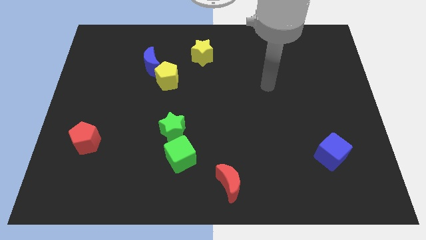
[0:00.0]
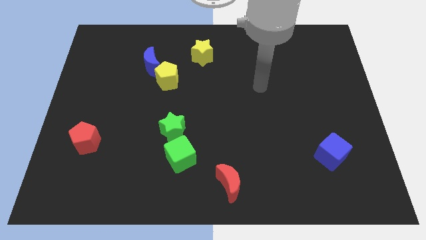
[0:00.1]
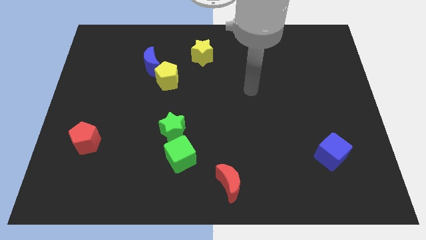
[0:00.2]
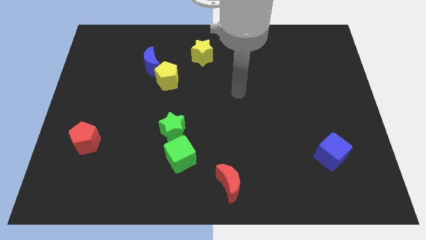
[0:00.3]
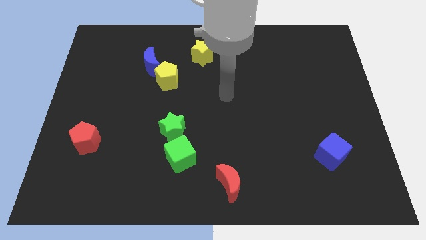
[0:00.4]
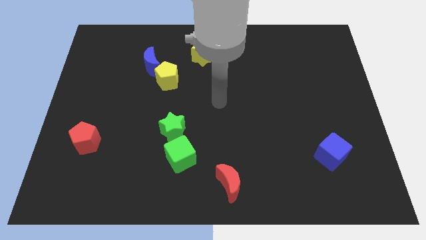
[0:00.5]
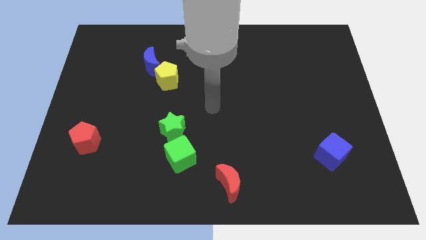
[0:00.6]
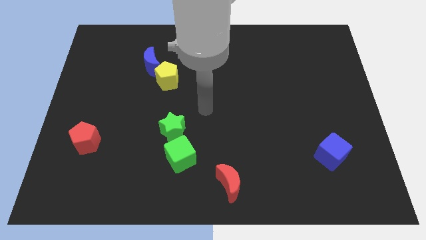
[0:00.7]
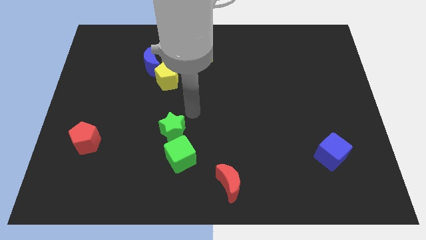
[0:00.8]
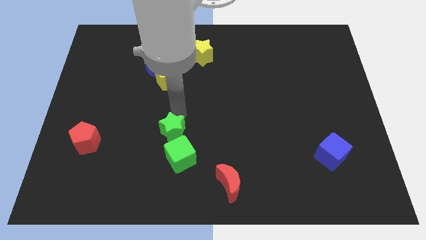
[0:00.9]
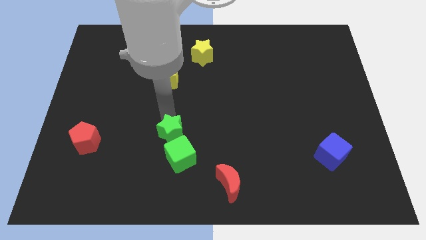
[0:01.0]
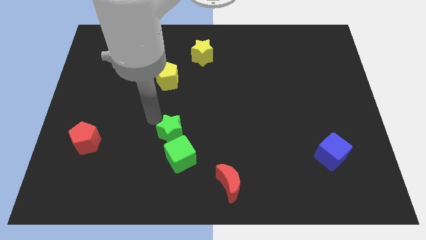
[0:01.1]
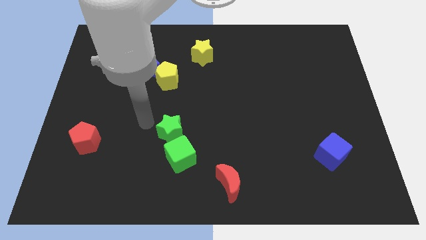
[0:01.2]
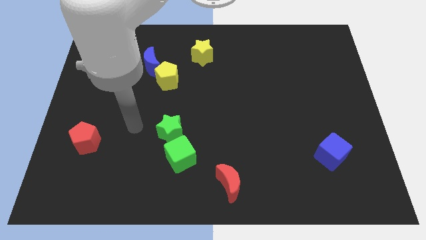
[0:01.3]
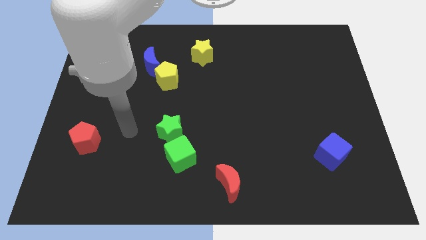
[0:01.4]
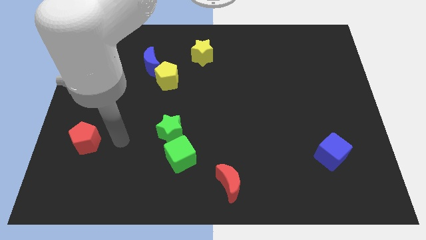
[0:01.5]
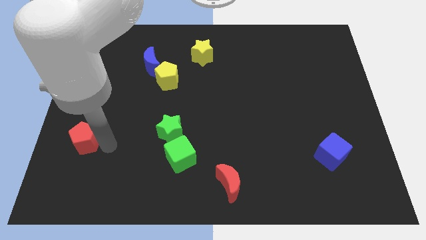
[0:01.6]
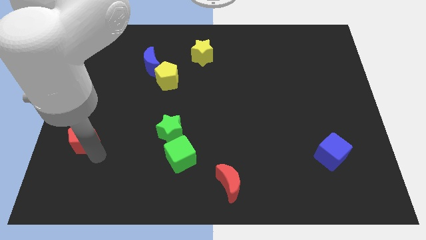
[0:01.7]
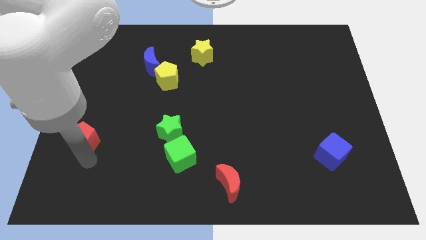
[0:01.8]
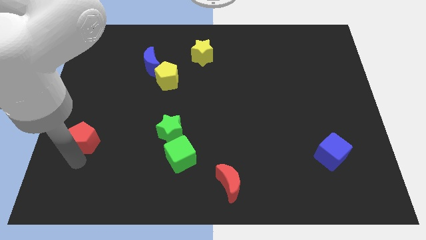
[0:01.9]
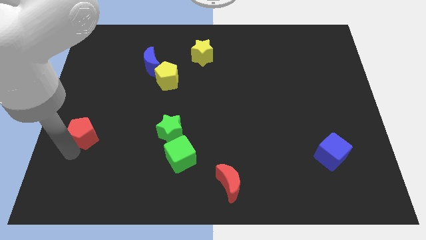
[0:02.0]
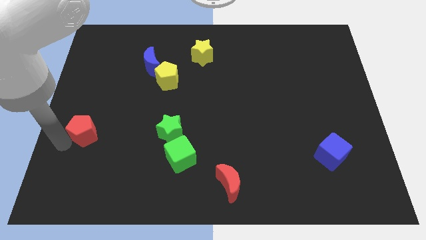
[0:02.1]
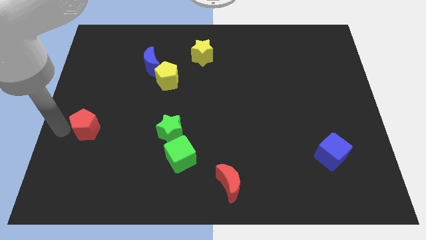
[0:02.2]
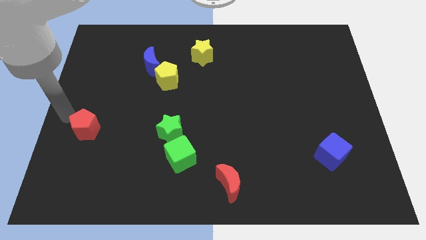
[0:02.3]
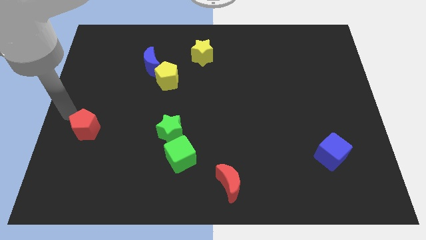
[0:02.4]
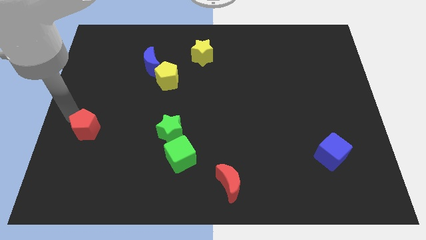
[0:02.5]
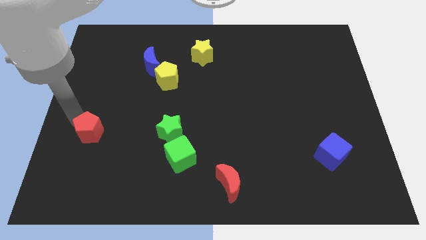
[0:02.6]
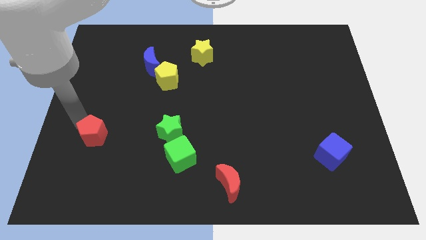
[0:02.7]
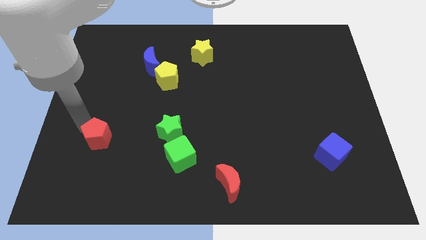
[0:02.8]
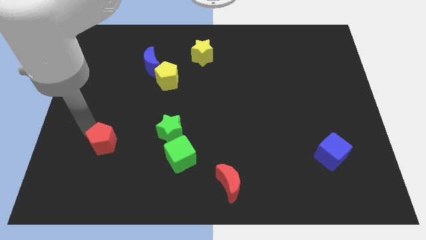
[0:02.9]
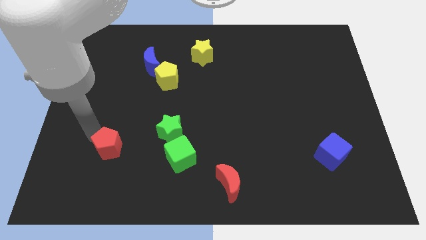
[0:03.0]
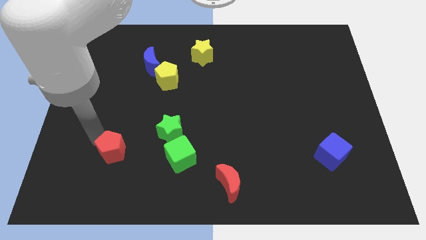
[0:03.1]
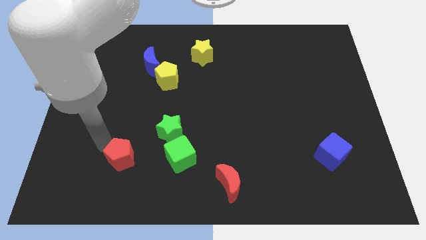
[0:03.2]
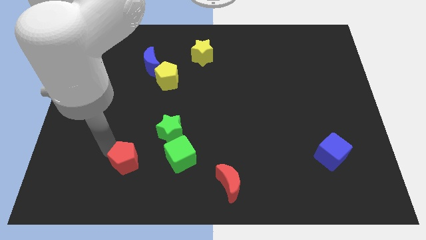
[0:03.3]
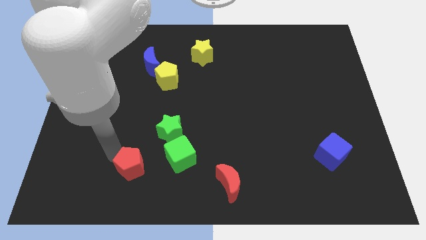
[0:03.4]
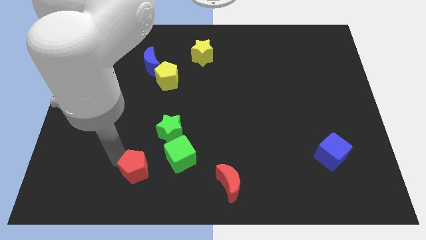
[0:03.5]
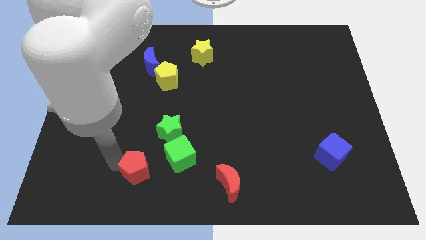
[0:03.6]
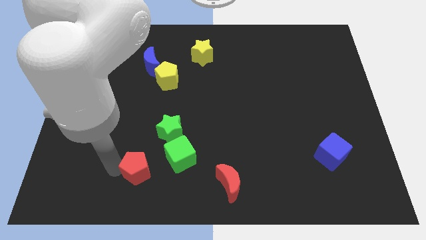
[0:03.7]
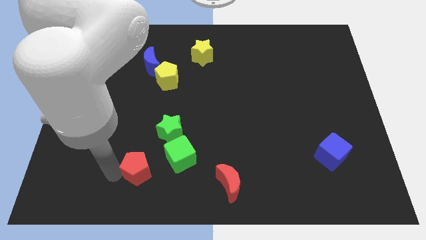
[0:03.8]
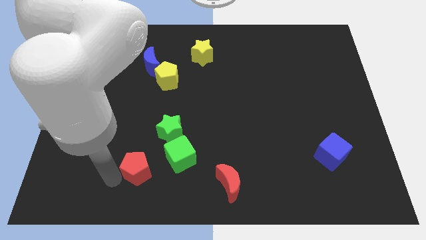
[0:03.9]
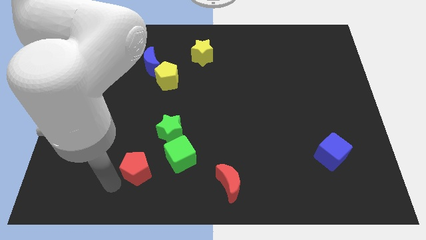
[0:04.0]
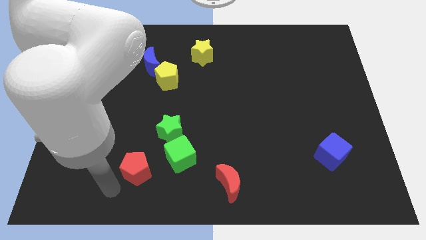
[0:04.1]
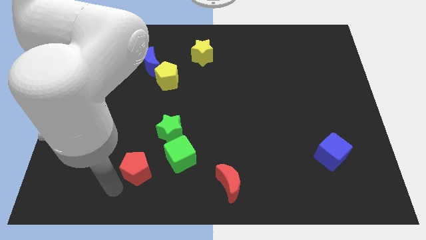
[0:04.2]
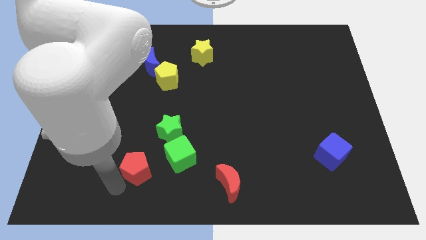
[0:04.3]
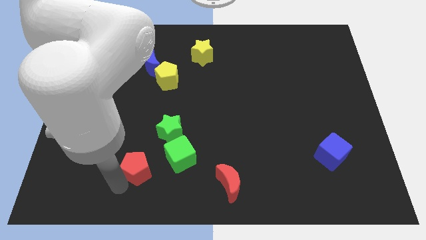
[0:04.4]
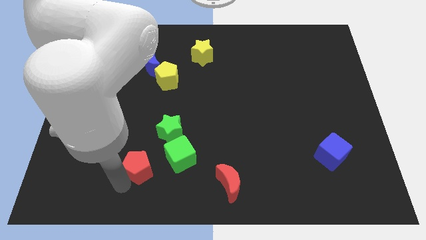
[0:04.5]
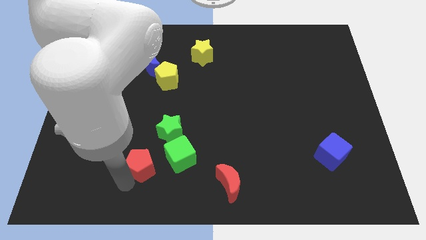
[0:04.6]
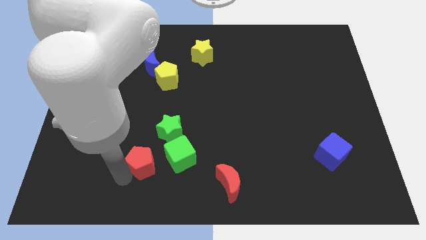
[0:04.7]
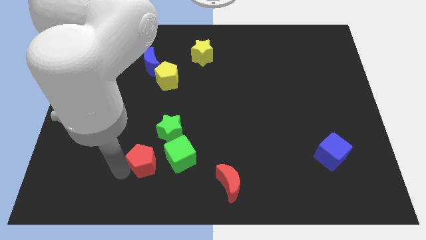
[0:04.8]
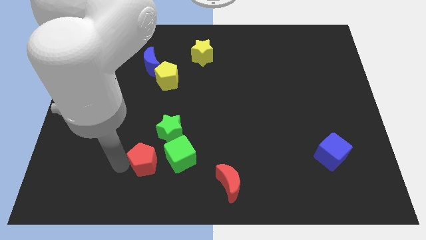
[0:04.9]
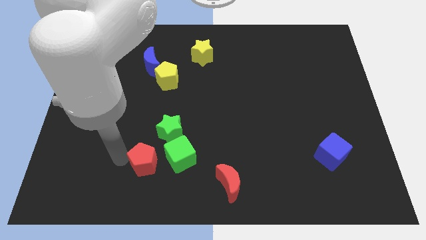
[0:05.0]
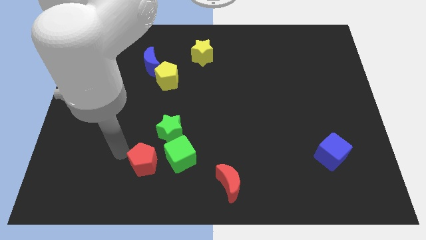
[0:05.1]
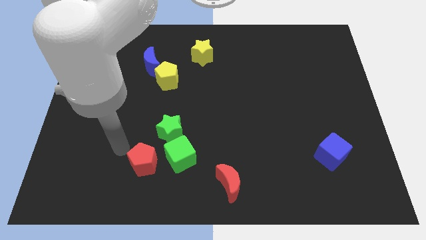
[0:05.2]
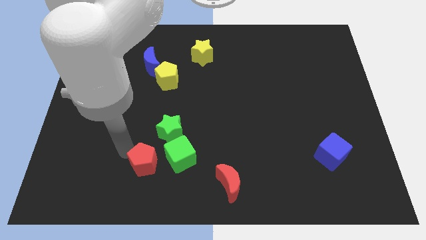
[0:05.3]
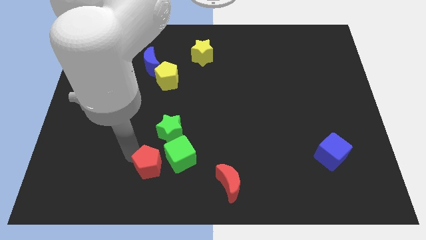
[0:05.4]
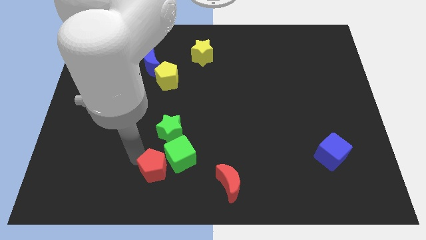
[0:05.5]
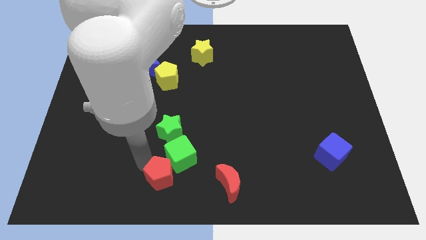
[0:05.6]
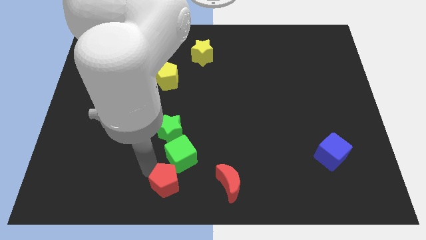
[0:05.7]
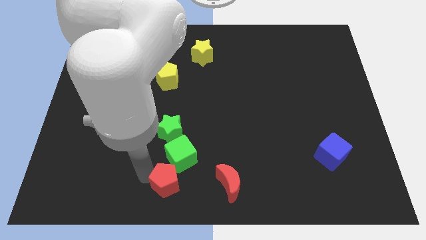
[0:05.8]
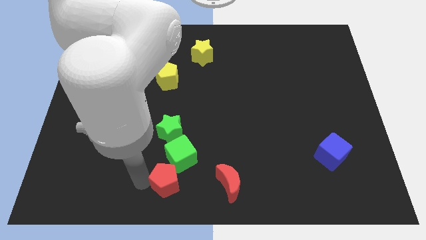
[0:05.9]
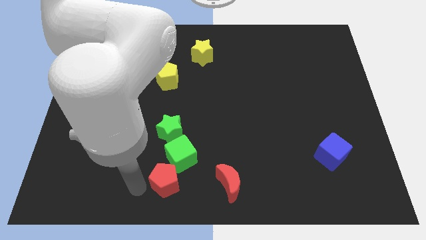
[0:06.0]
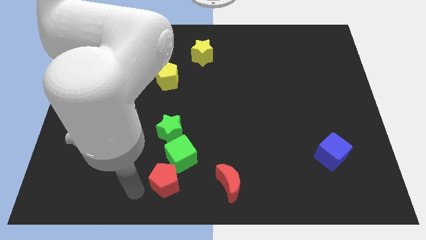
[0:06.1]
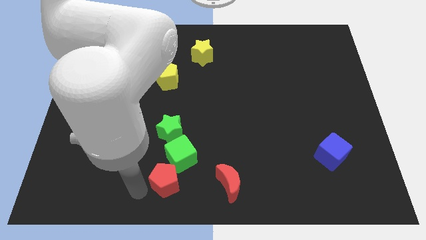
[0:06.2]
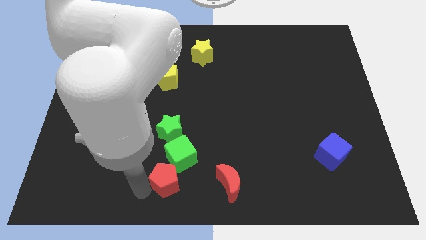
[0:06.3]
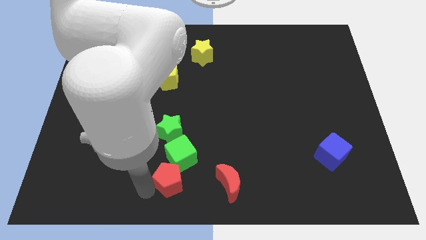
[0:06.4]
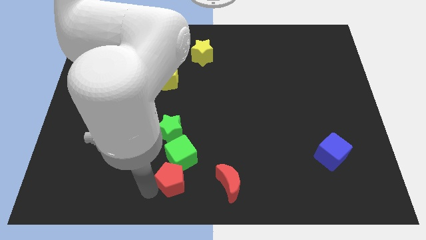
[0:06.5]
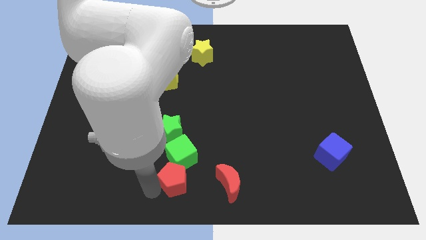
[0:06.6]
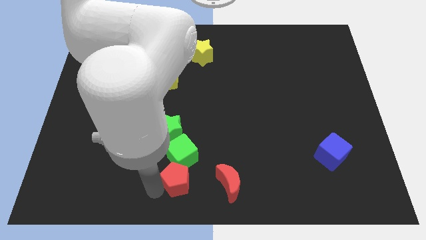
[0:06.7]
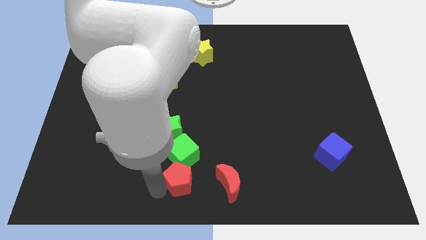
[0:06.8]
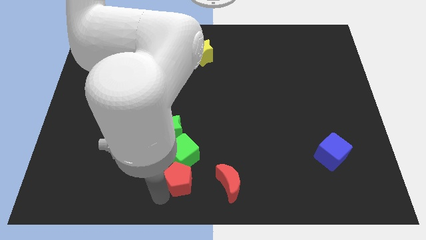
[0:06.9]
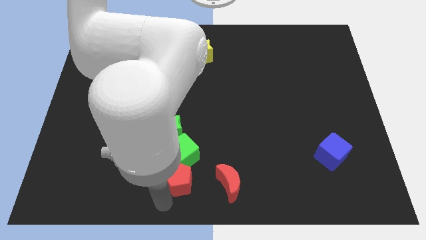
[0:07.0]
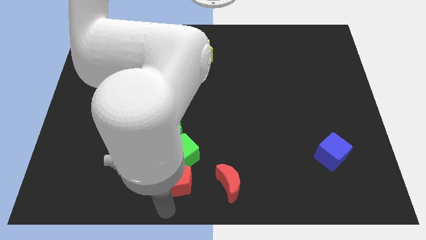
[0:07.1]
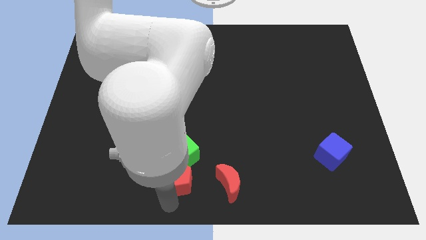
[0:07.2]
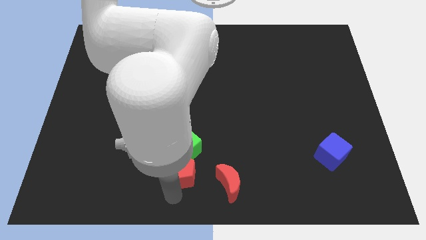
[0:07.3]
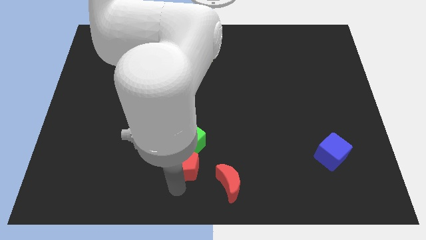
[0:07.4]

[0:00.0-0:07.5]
move the red pentagon to the bottom right side of the green star

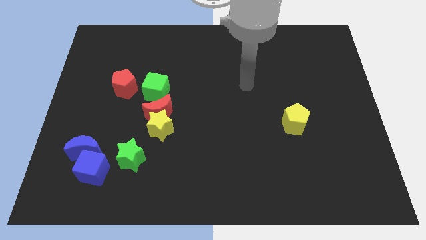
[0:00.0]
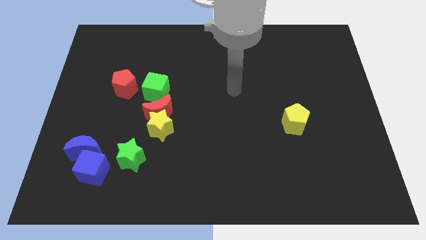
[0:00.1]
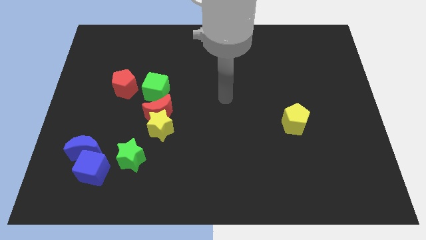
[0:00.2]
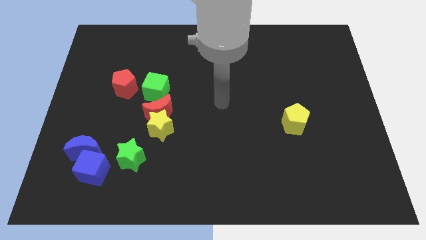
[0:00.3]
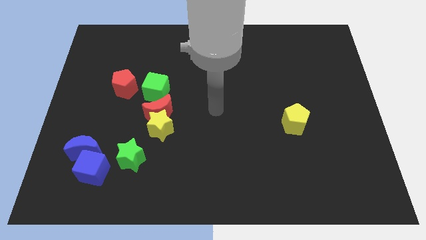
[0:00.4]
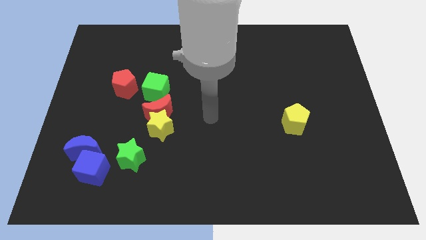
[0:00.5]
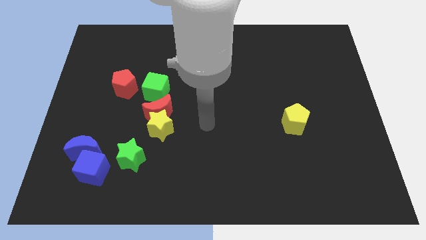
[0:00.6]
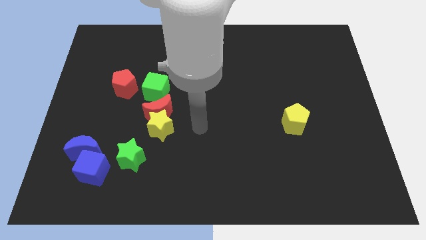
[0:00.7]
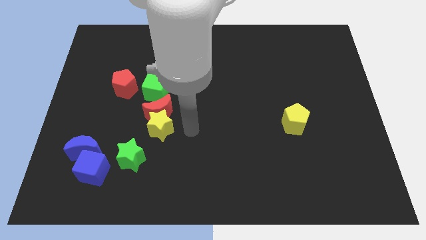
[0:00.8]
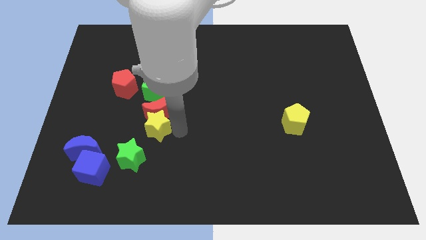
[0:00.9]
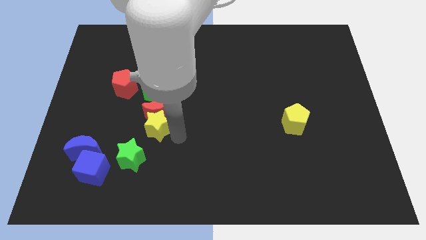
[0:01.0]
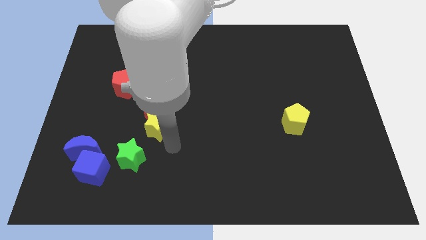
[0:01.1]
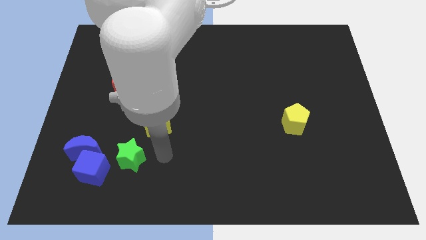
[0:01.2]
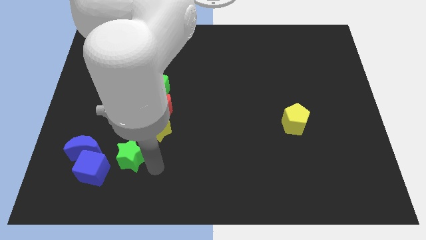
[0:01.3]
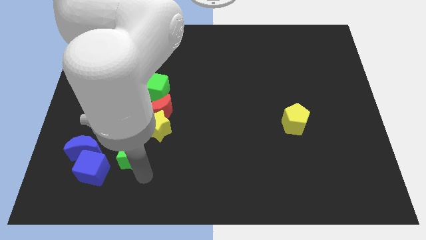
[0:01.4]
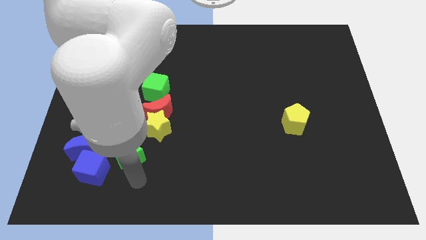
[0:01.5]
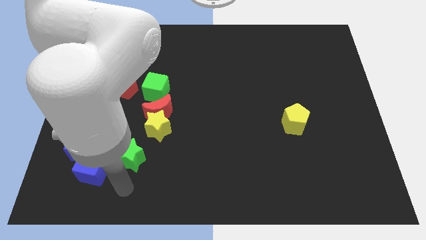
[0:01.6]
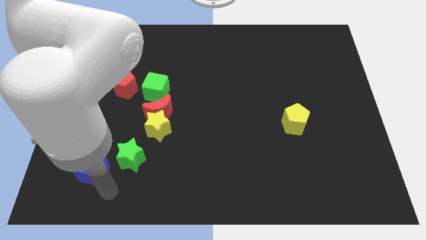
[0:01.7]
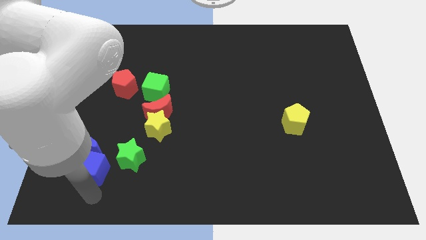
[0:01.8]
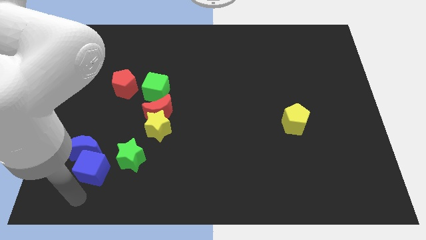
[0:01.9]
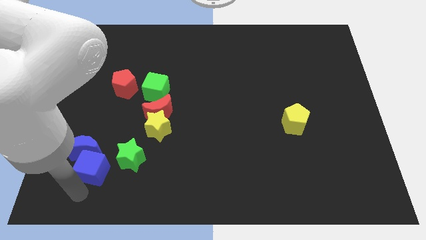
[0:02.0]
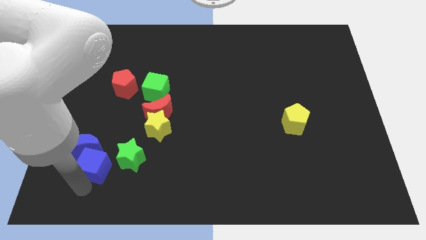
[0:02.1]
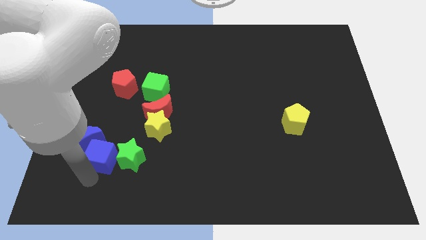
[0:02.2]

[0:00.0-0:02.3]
push the blue cube to the top left side of the green star
